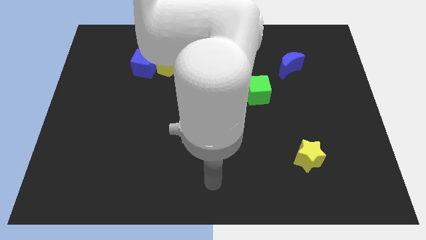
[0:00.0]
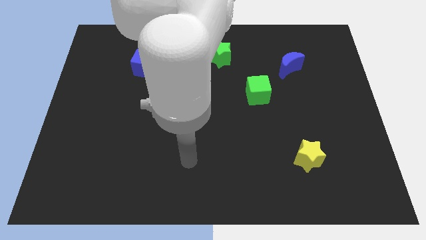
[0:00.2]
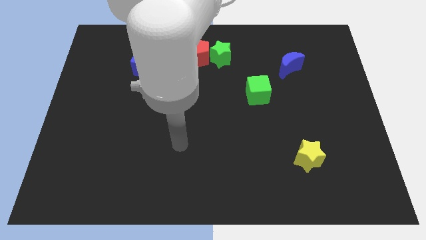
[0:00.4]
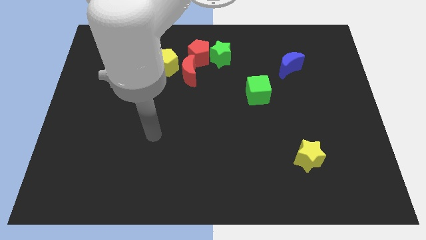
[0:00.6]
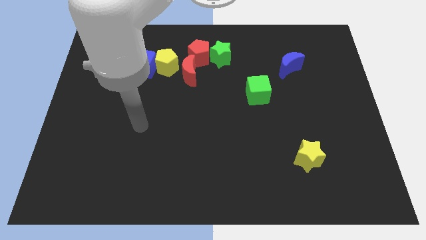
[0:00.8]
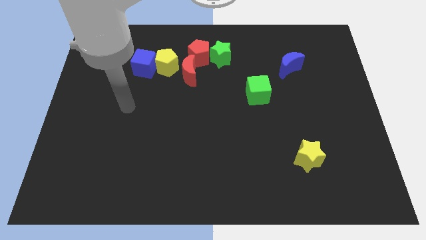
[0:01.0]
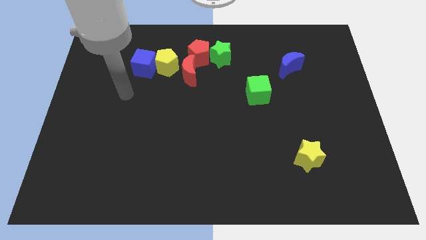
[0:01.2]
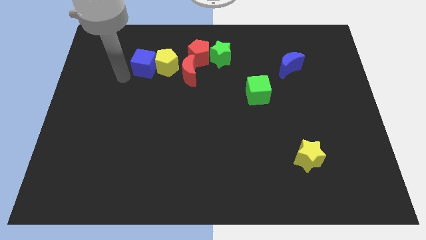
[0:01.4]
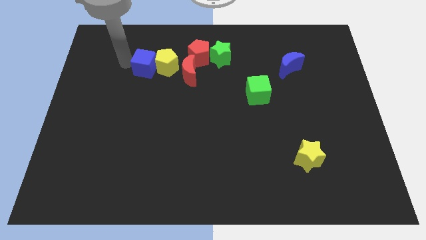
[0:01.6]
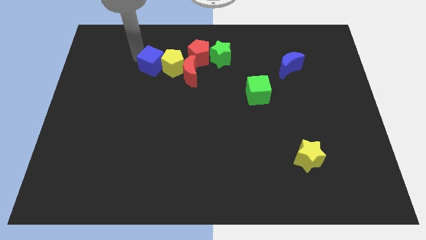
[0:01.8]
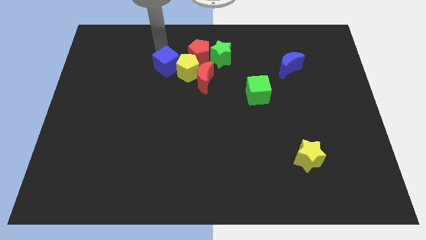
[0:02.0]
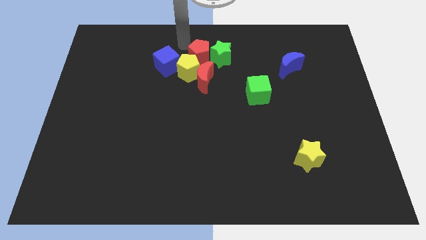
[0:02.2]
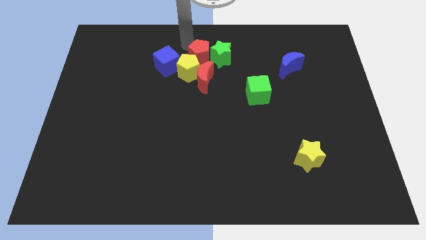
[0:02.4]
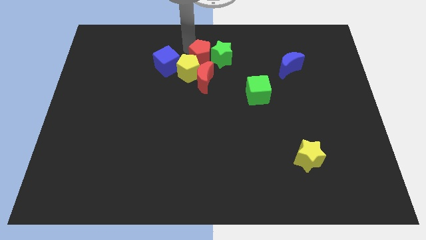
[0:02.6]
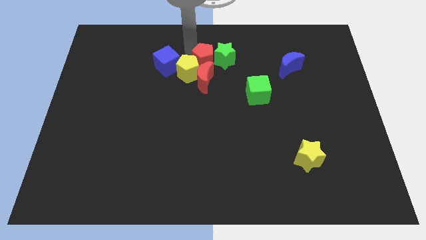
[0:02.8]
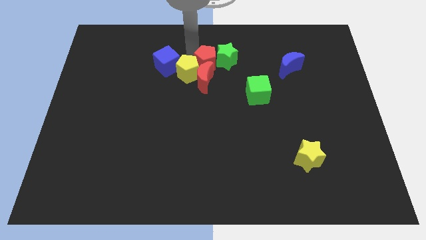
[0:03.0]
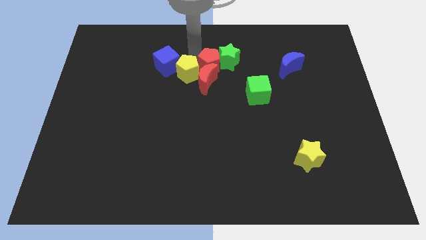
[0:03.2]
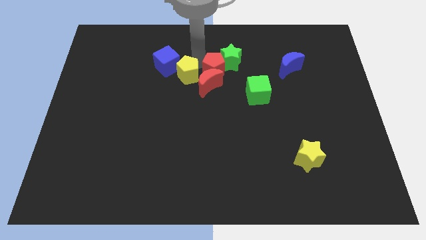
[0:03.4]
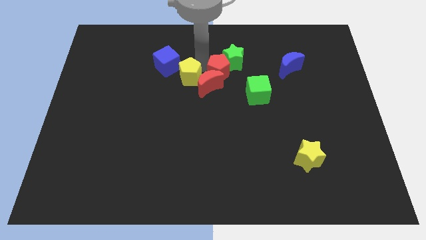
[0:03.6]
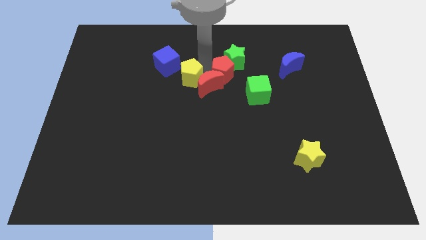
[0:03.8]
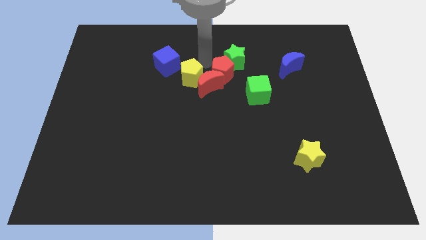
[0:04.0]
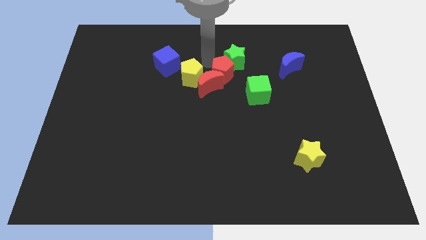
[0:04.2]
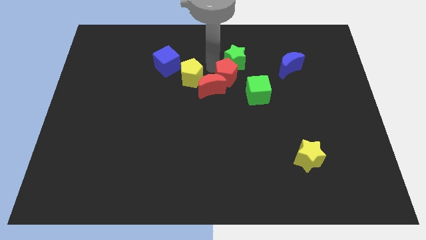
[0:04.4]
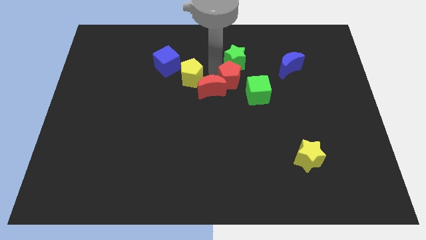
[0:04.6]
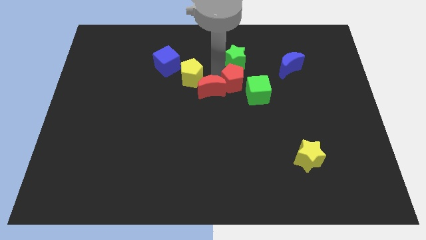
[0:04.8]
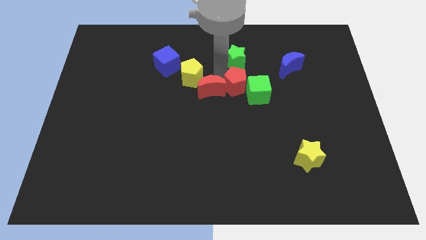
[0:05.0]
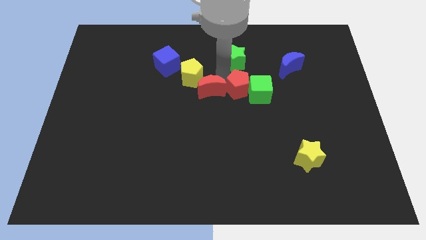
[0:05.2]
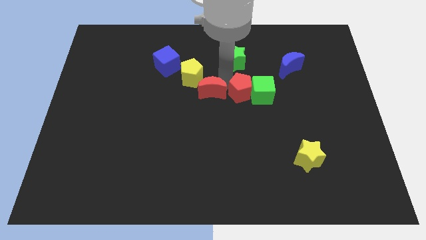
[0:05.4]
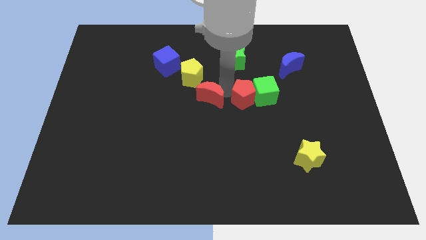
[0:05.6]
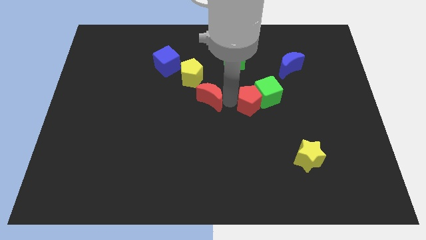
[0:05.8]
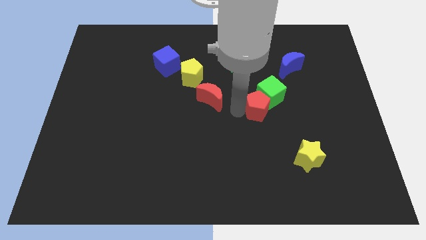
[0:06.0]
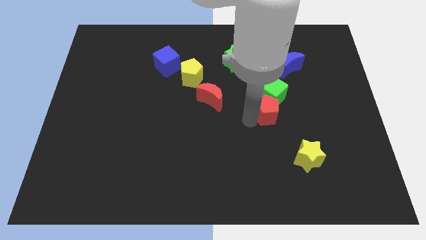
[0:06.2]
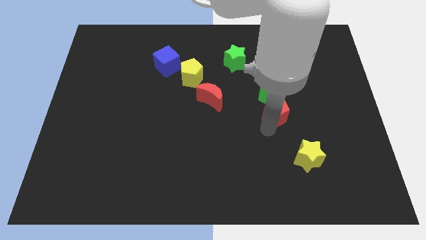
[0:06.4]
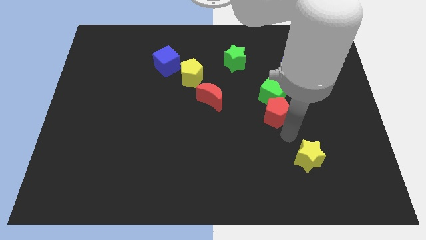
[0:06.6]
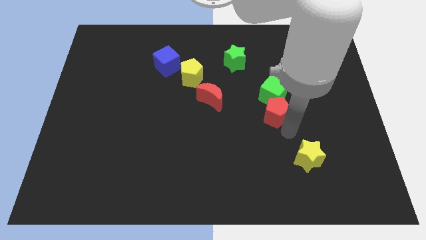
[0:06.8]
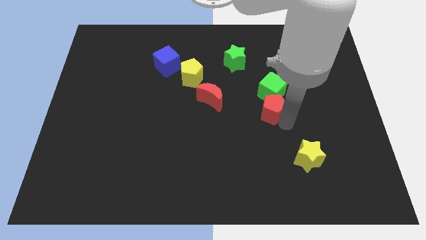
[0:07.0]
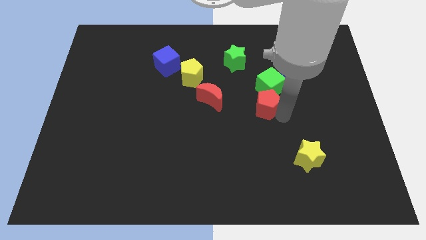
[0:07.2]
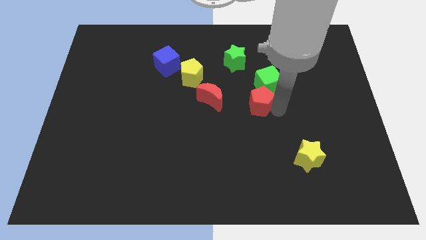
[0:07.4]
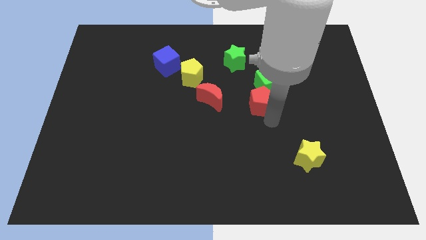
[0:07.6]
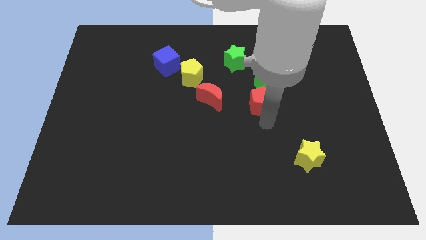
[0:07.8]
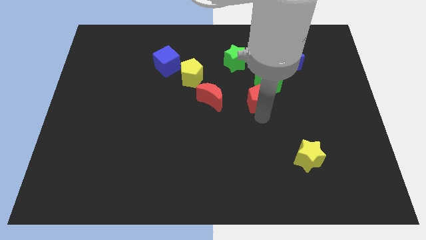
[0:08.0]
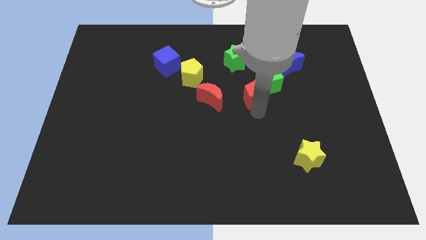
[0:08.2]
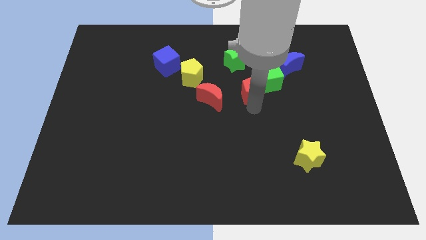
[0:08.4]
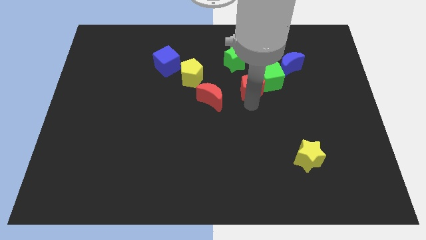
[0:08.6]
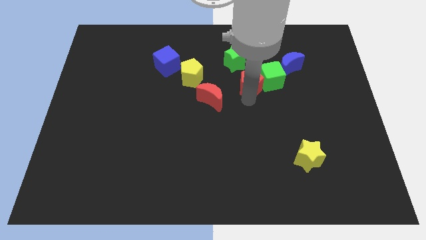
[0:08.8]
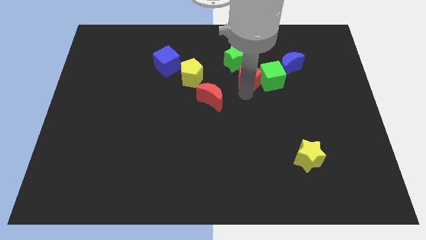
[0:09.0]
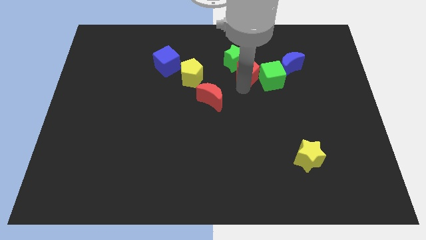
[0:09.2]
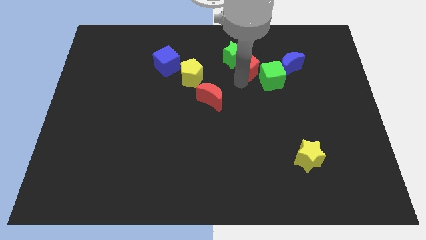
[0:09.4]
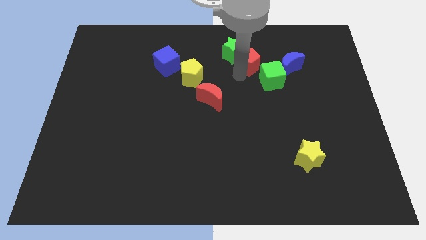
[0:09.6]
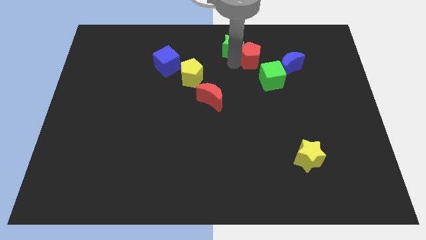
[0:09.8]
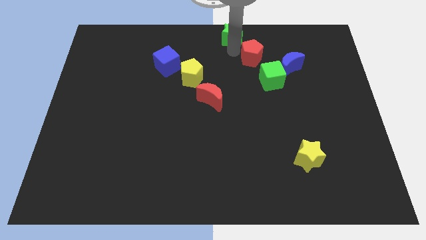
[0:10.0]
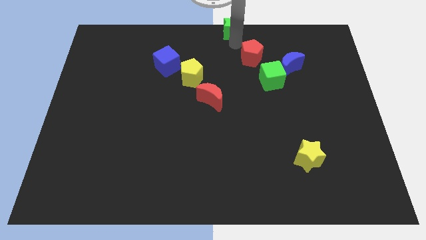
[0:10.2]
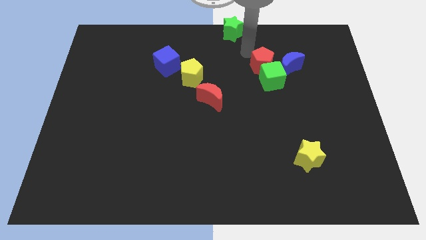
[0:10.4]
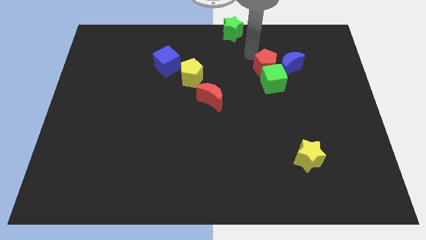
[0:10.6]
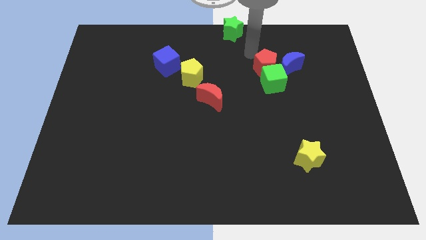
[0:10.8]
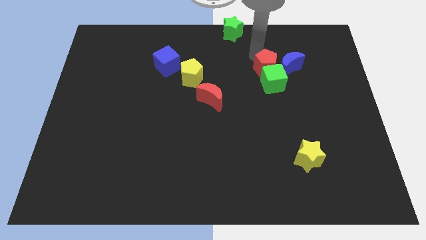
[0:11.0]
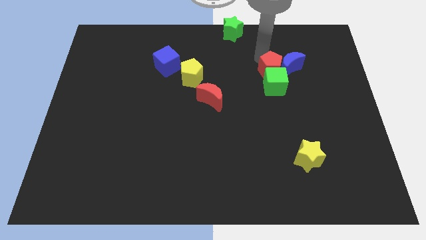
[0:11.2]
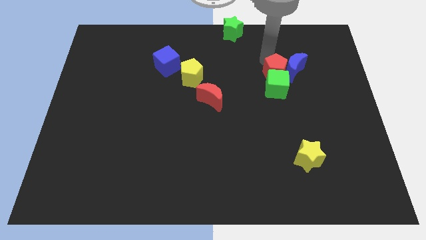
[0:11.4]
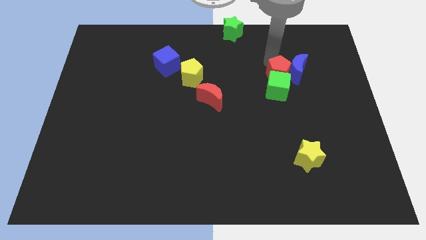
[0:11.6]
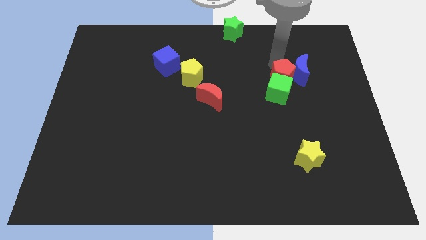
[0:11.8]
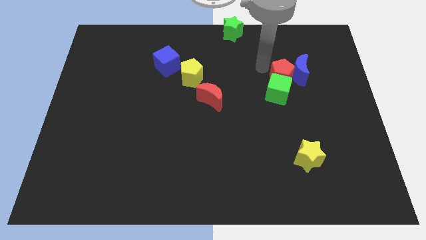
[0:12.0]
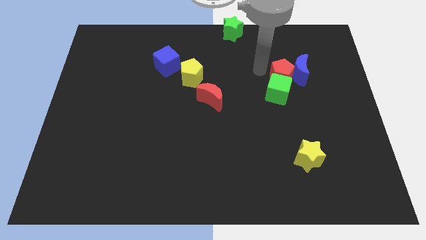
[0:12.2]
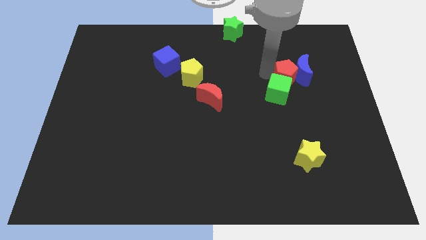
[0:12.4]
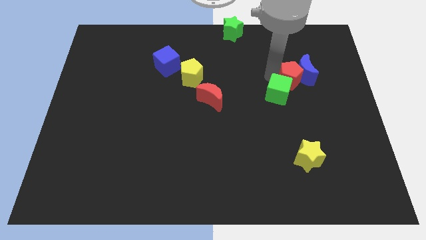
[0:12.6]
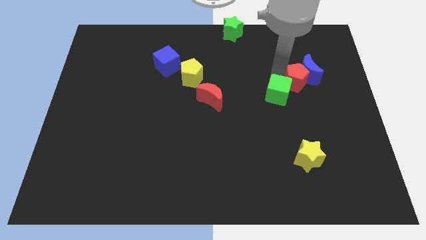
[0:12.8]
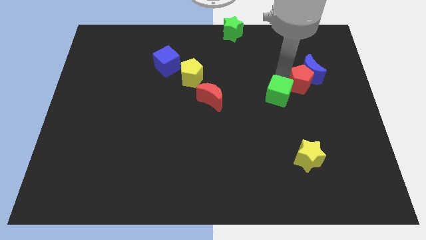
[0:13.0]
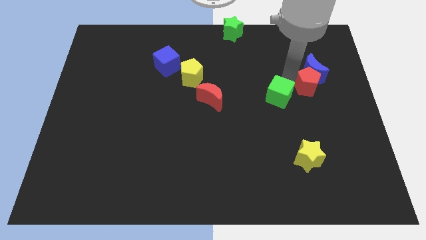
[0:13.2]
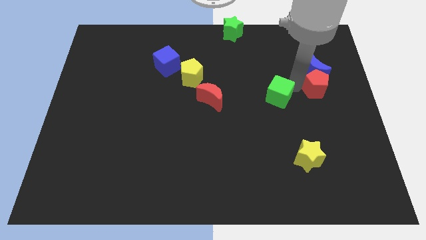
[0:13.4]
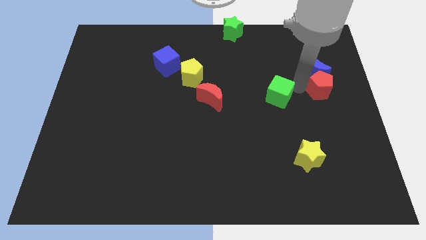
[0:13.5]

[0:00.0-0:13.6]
slide the red pentagon to the center right
